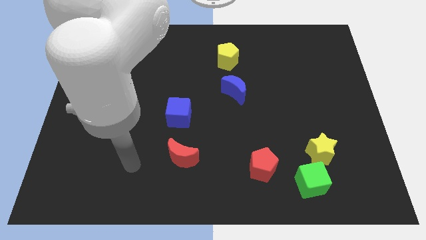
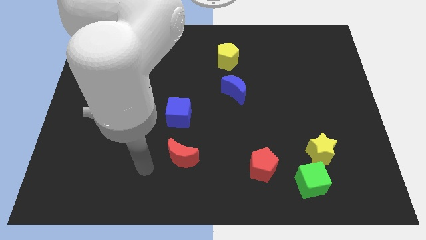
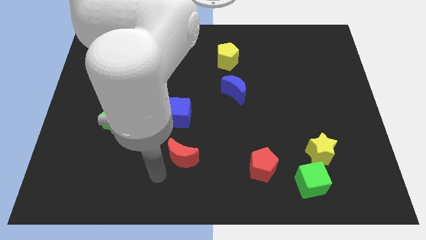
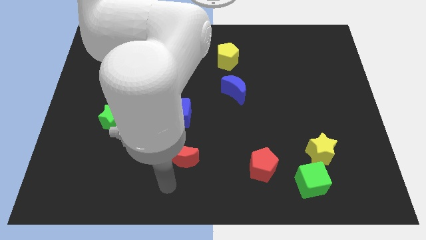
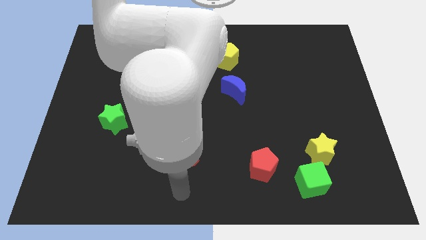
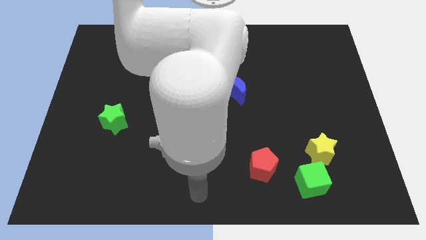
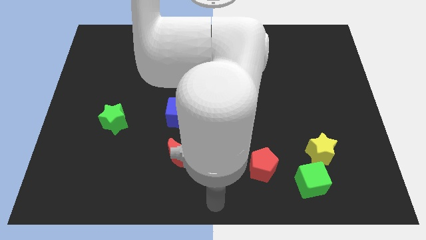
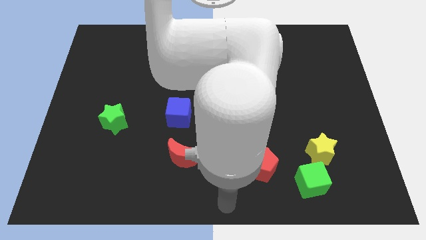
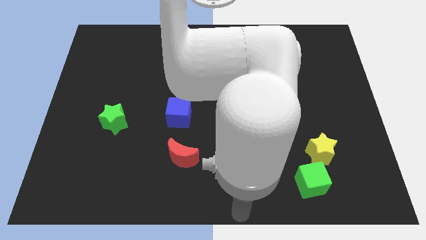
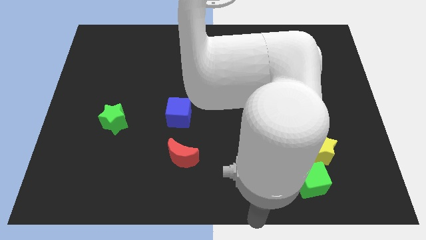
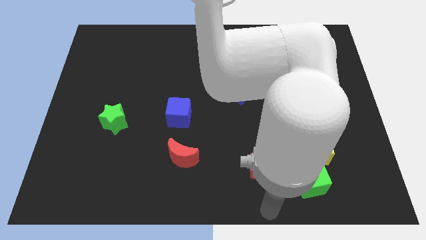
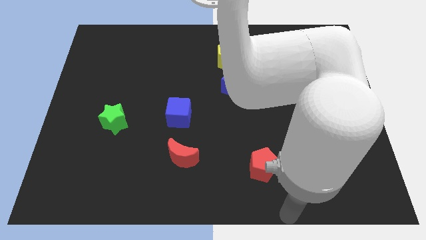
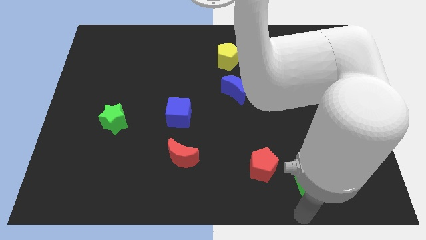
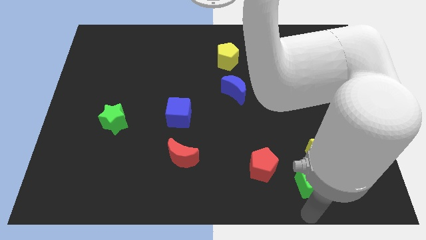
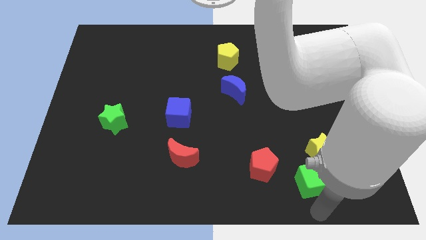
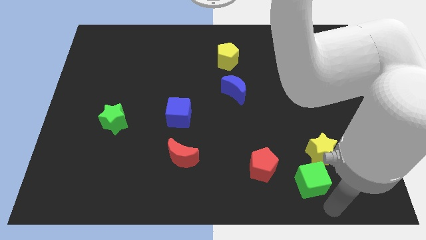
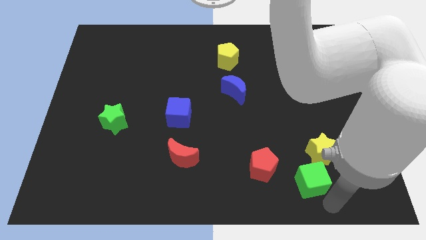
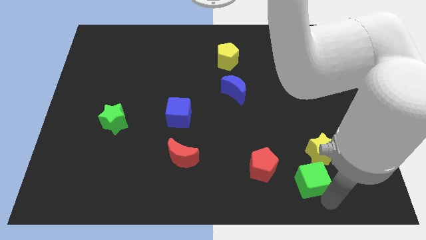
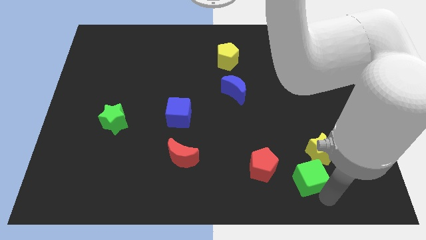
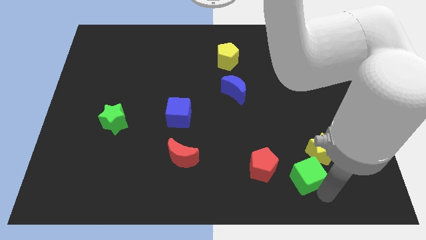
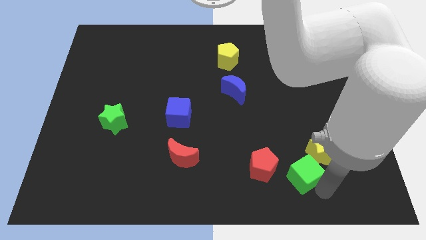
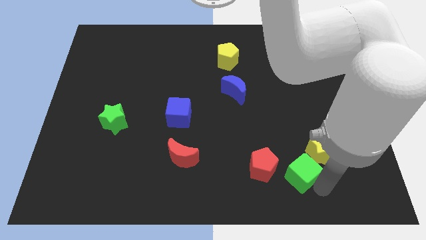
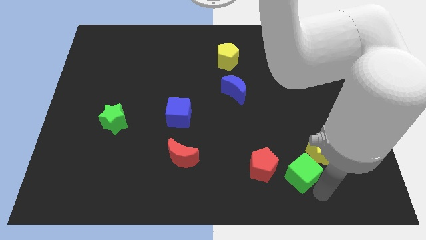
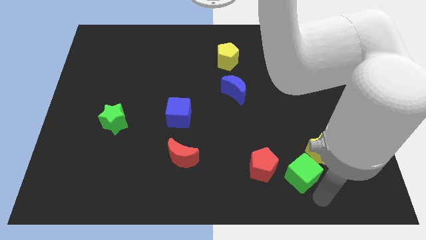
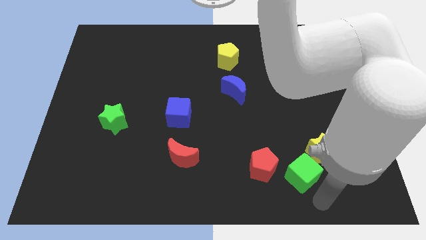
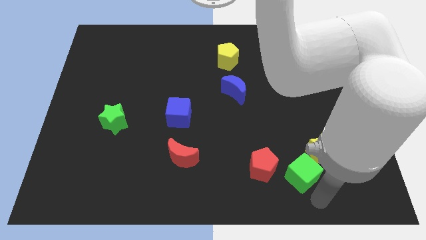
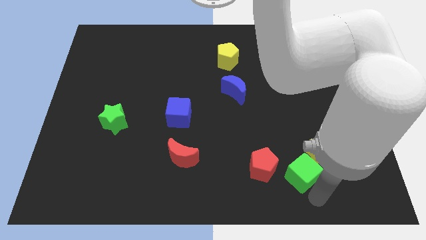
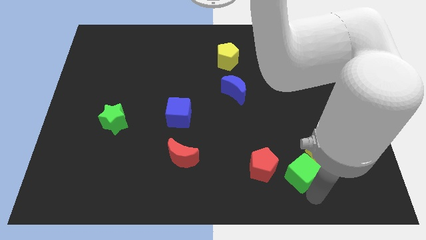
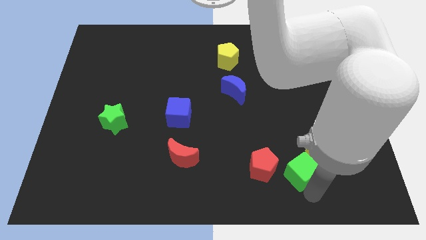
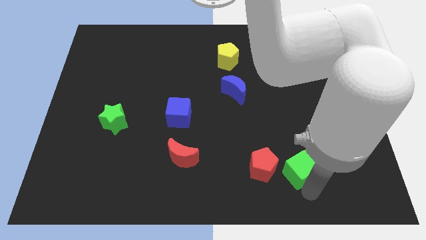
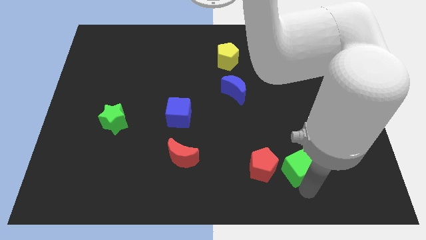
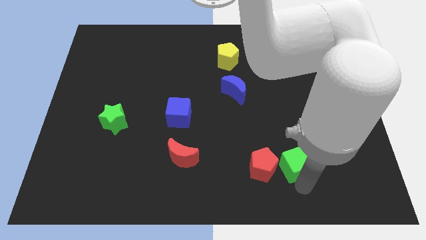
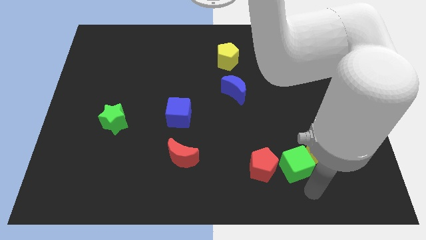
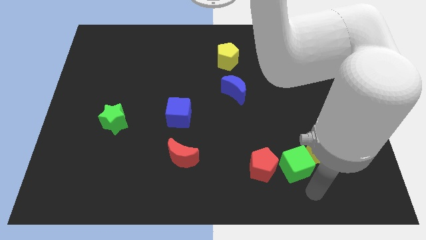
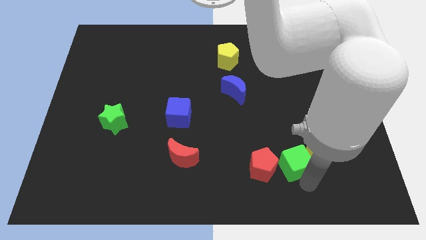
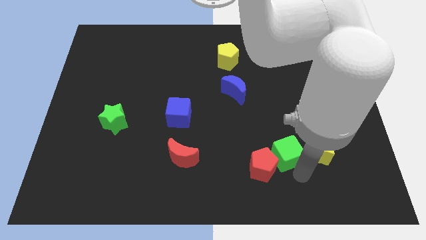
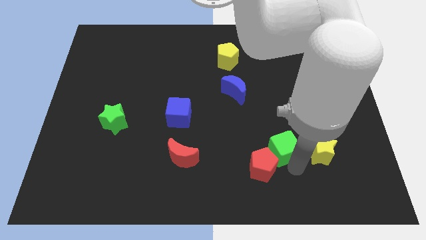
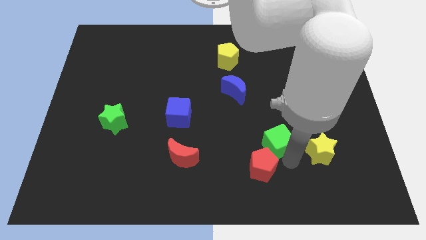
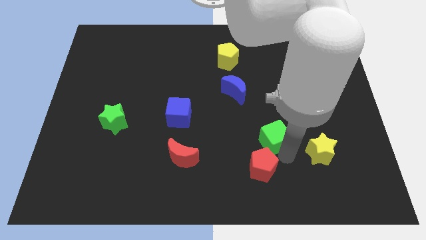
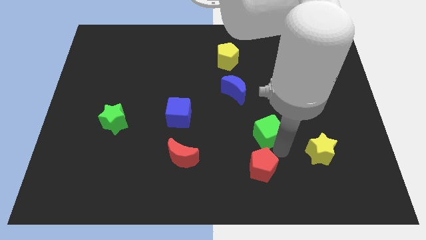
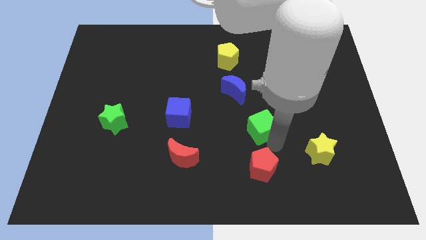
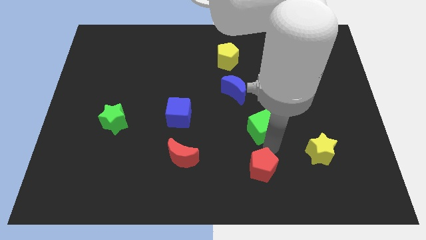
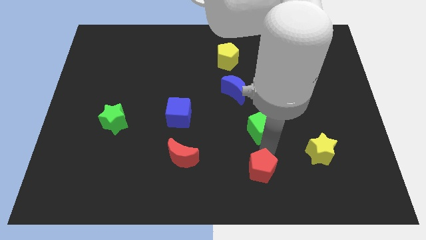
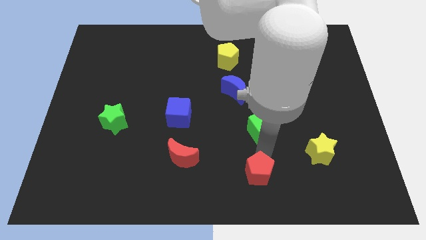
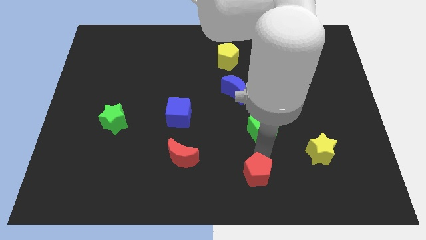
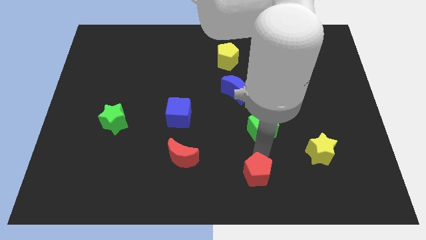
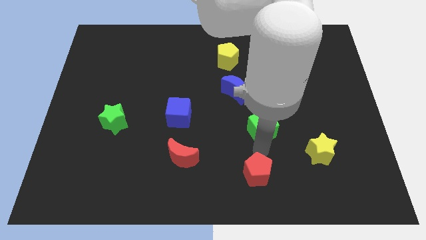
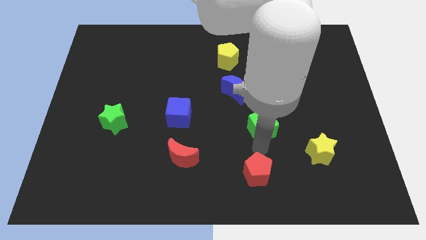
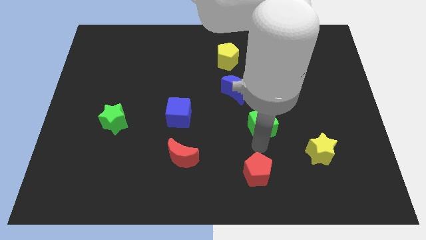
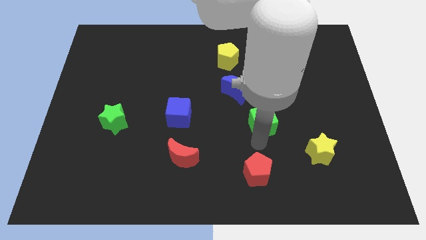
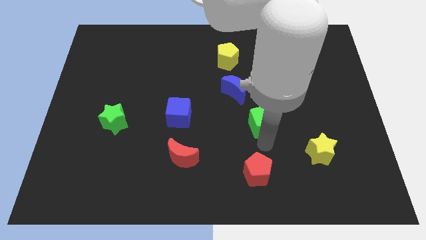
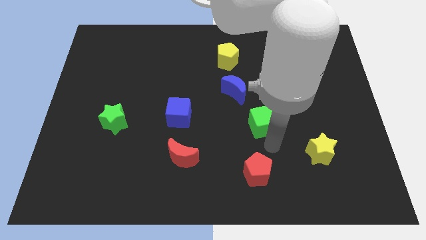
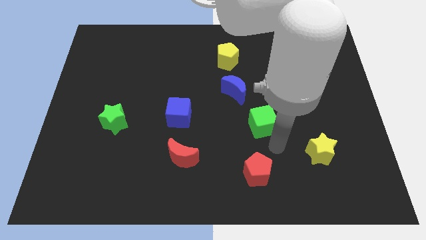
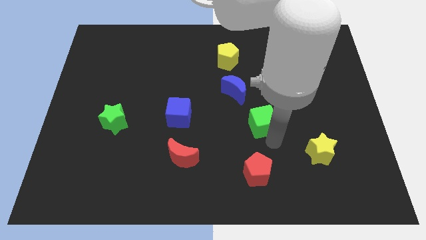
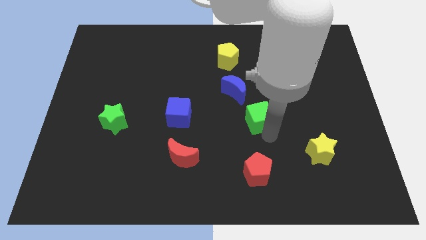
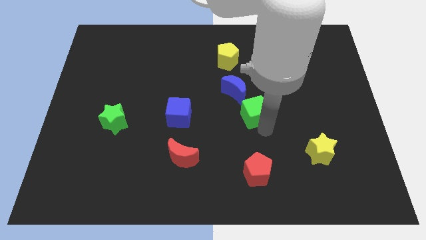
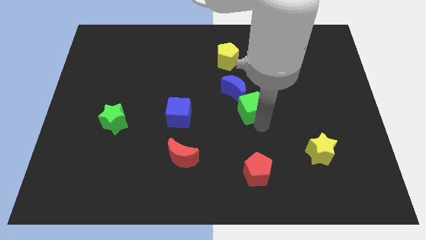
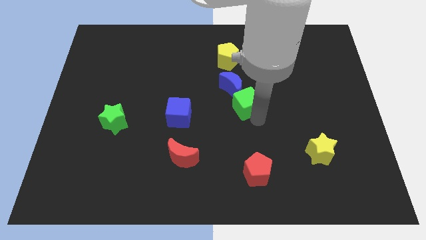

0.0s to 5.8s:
put the green cube next to the blue moon

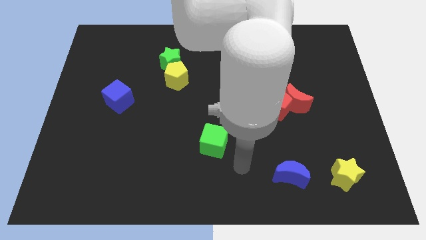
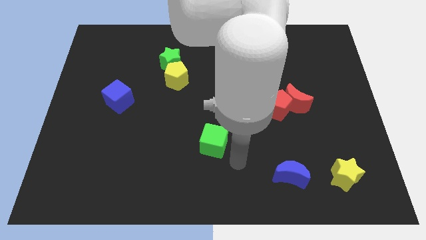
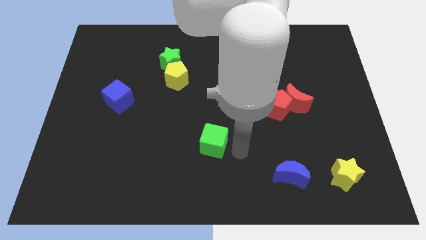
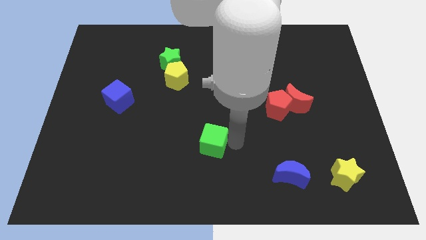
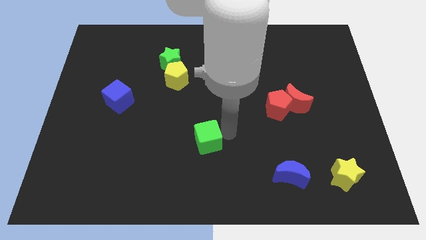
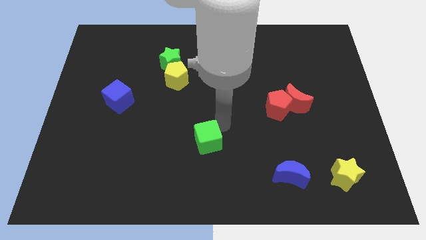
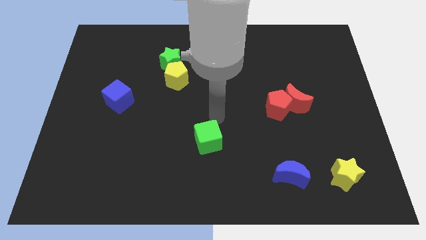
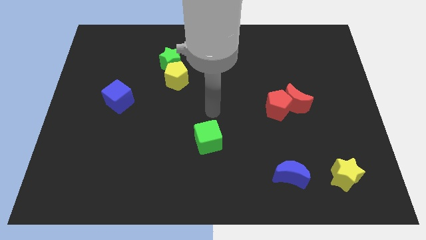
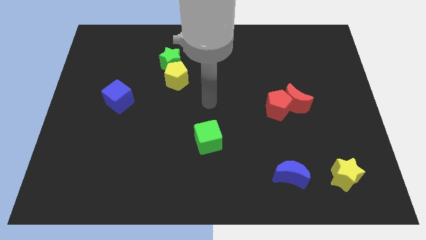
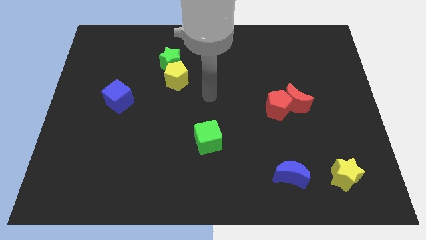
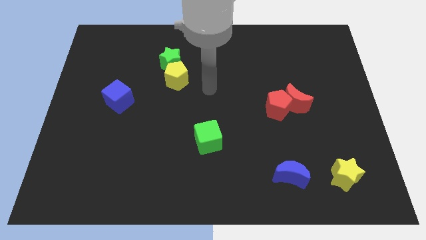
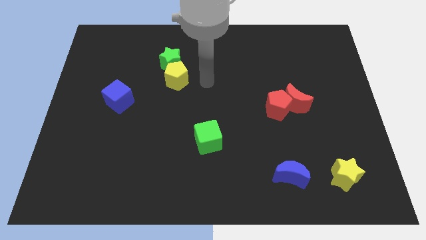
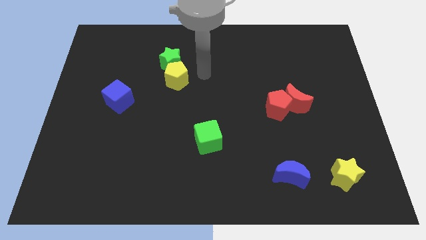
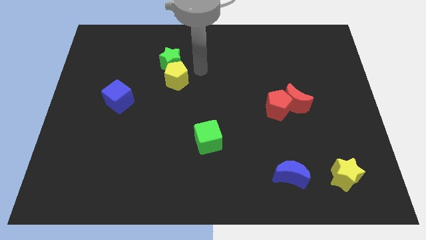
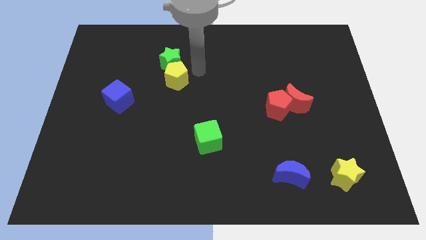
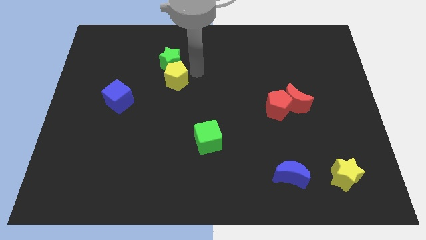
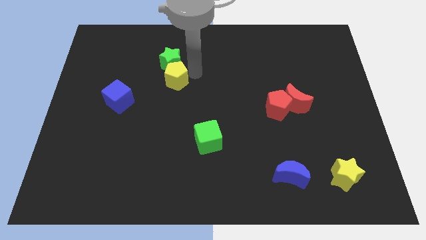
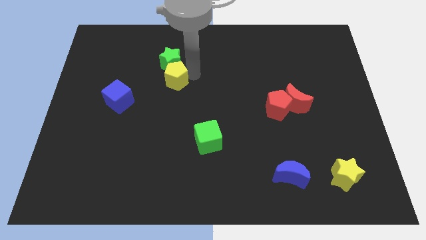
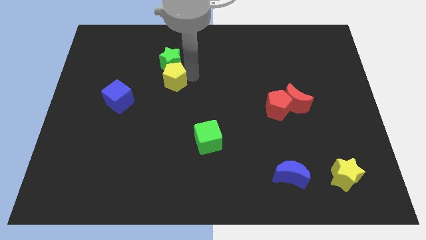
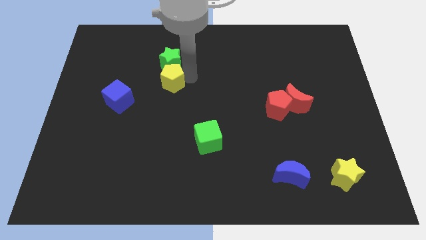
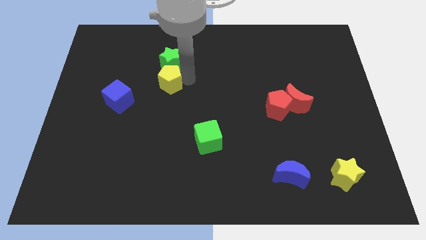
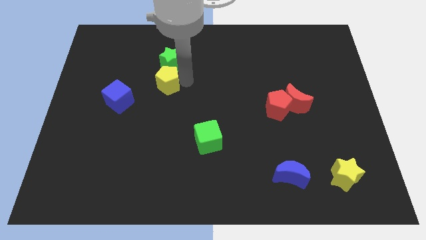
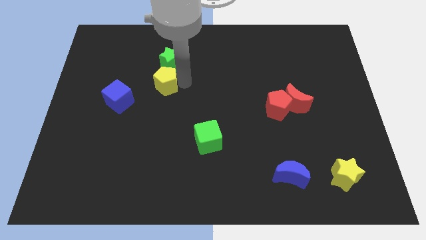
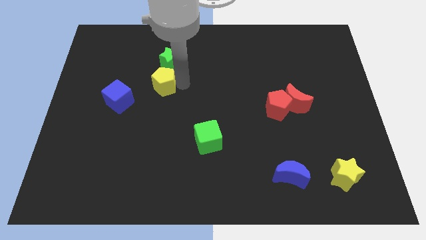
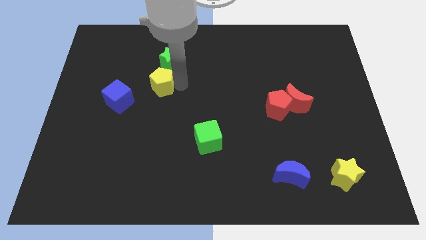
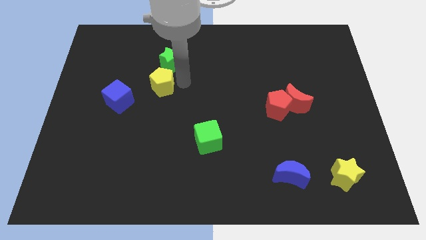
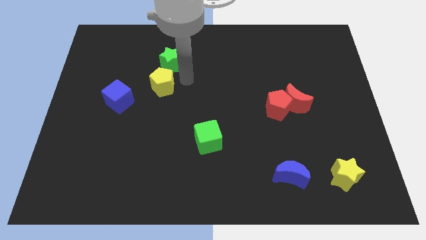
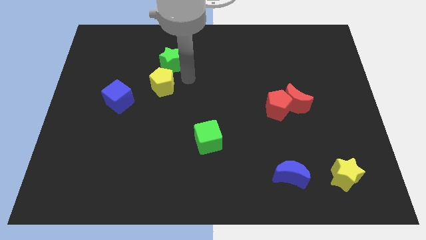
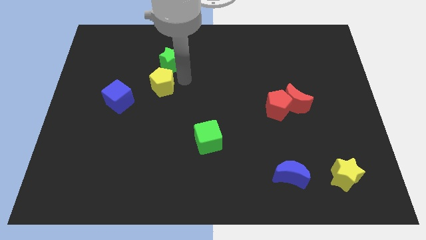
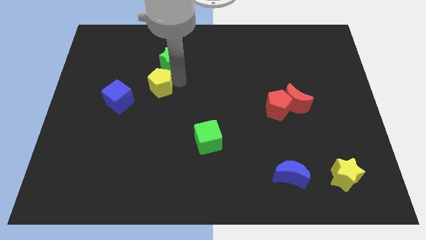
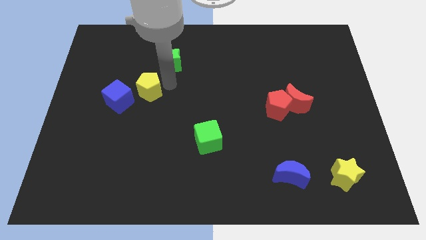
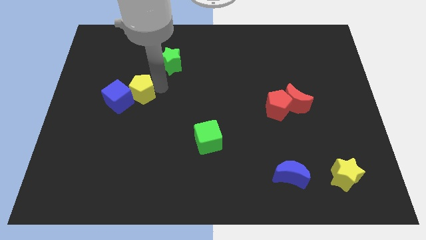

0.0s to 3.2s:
move the yellow pentagon close to the blue cube
